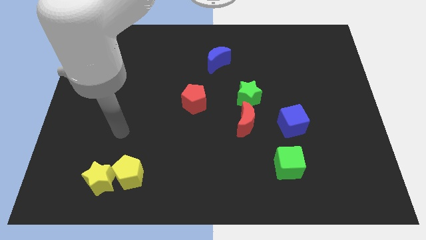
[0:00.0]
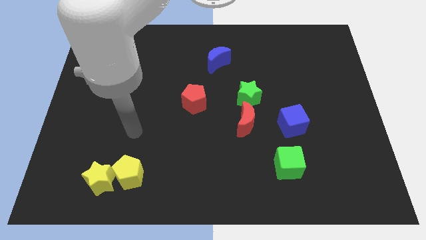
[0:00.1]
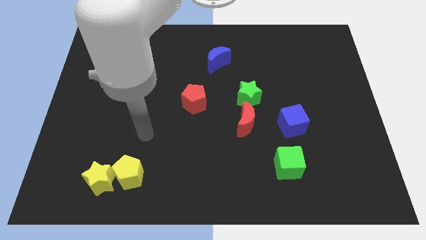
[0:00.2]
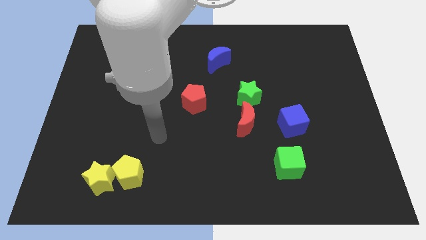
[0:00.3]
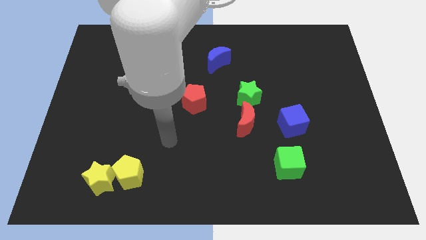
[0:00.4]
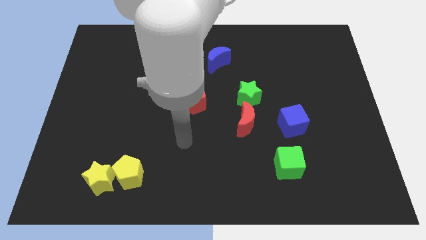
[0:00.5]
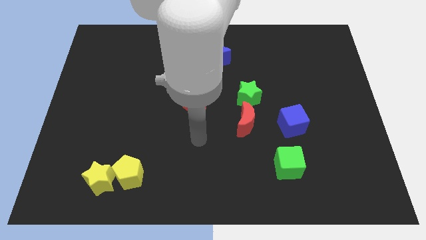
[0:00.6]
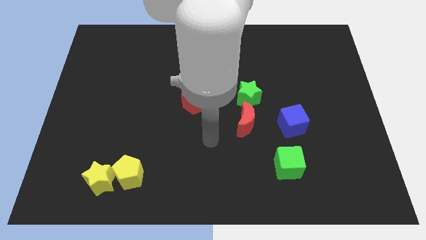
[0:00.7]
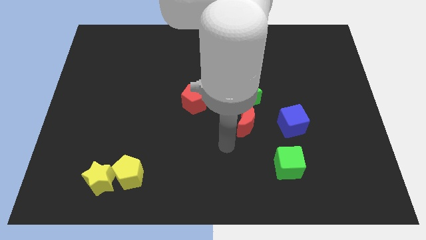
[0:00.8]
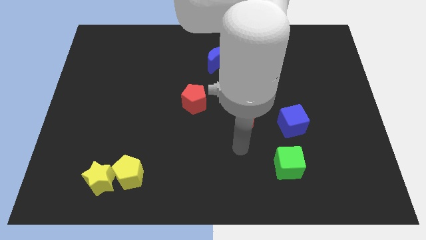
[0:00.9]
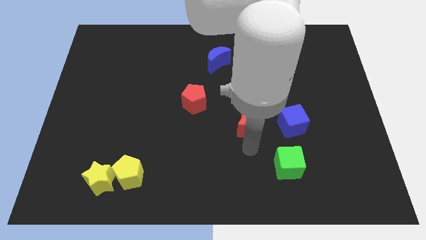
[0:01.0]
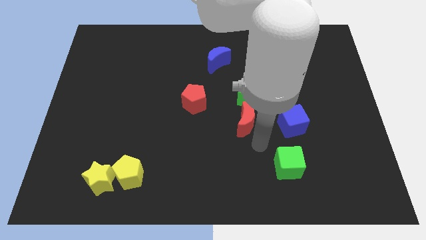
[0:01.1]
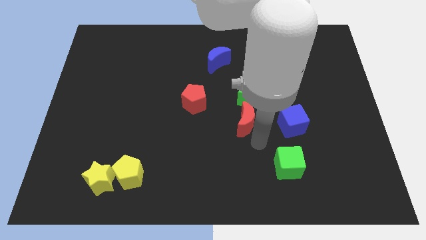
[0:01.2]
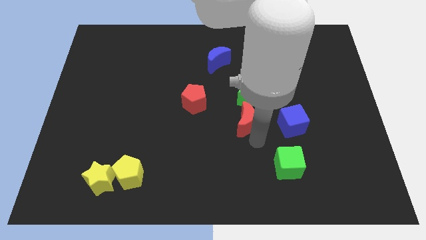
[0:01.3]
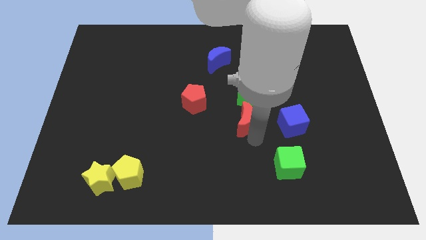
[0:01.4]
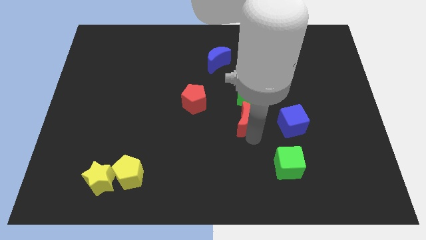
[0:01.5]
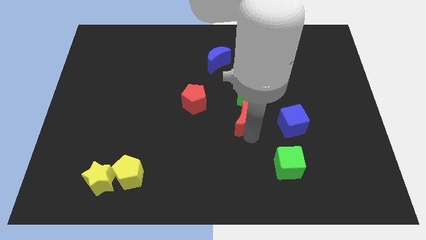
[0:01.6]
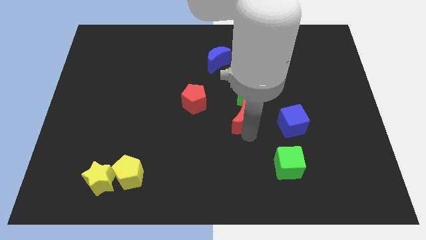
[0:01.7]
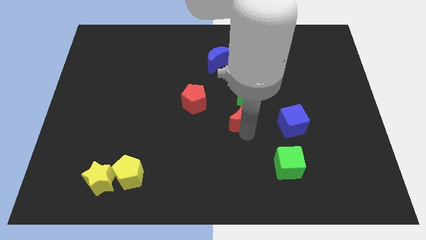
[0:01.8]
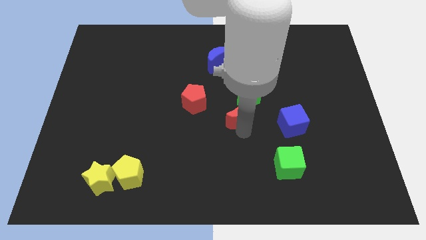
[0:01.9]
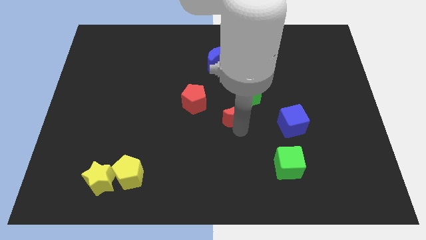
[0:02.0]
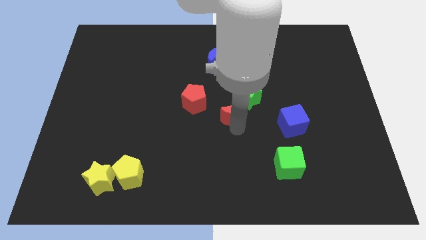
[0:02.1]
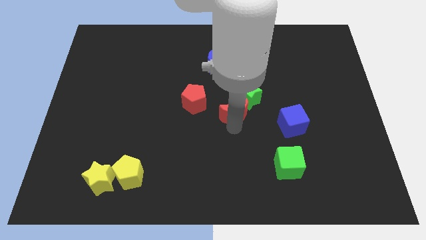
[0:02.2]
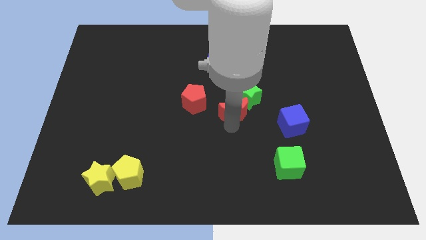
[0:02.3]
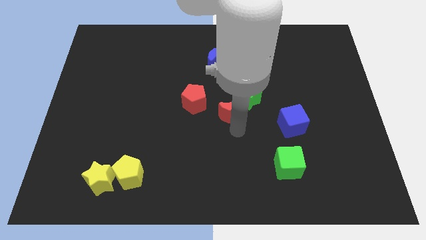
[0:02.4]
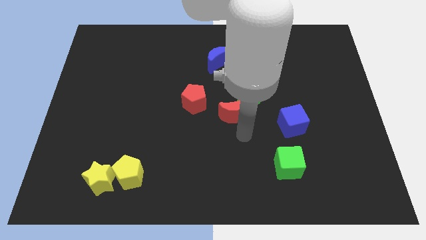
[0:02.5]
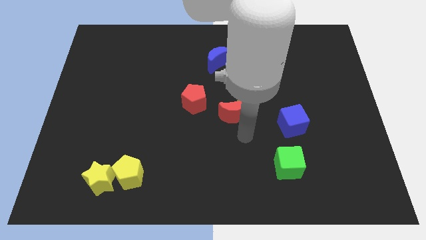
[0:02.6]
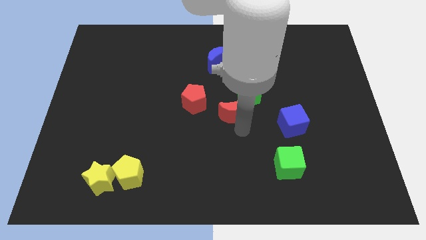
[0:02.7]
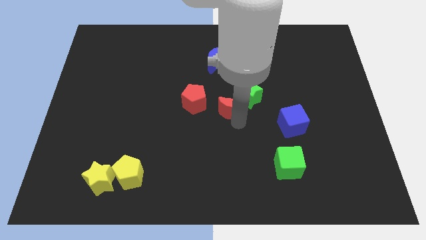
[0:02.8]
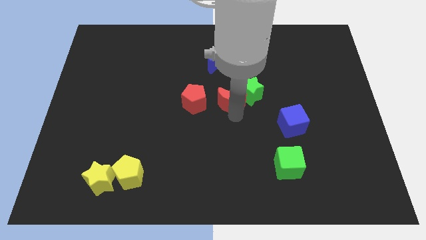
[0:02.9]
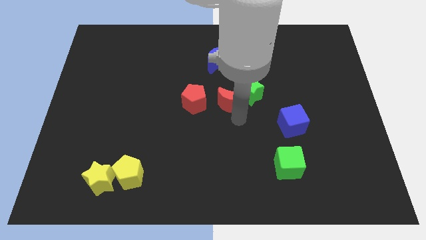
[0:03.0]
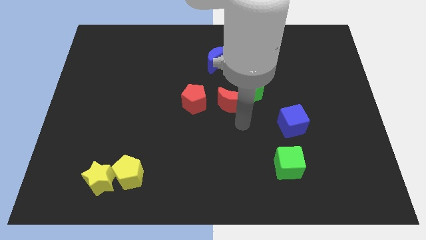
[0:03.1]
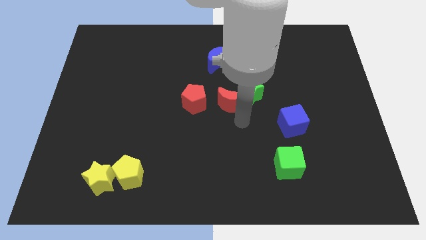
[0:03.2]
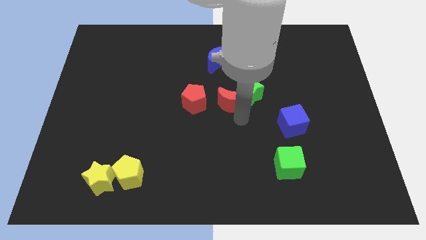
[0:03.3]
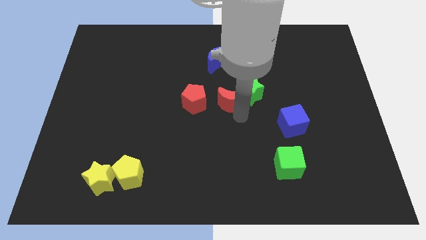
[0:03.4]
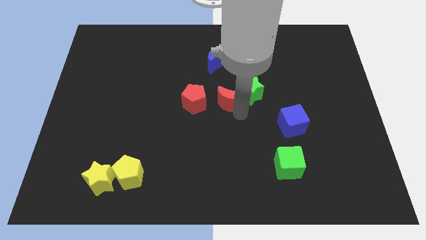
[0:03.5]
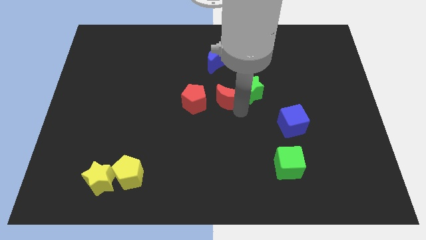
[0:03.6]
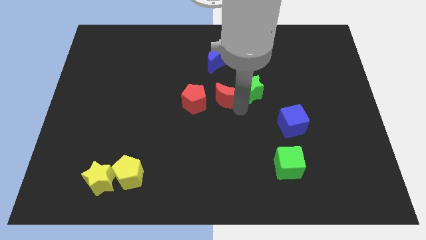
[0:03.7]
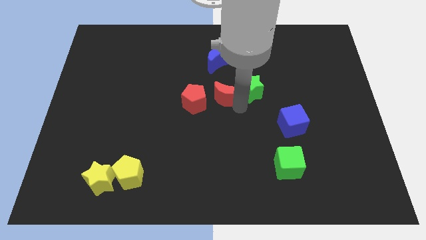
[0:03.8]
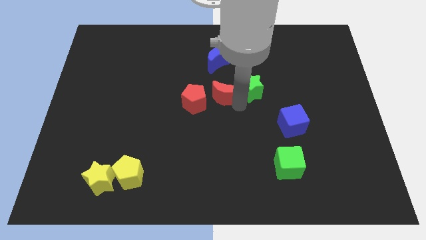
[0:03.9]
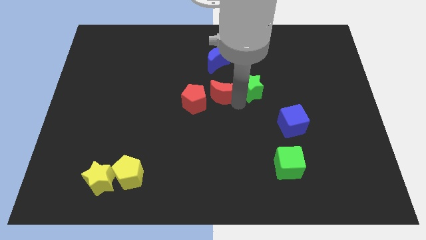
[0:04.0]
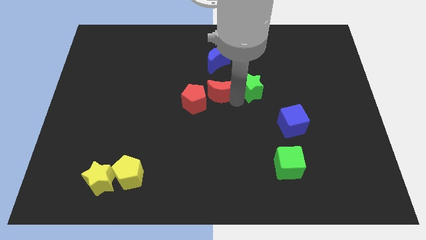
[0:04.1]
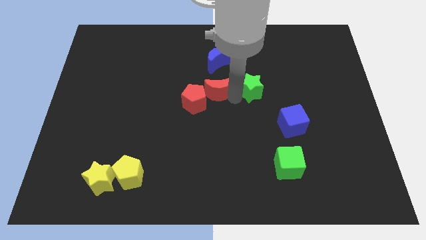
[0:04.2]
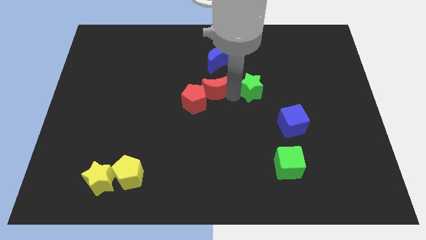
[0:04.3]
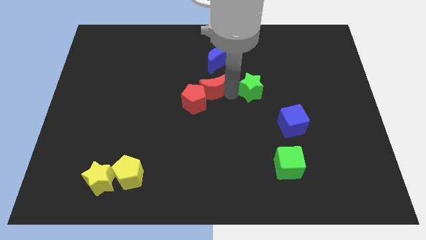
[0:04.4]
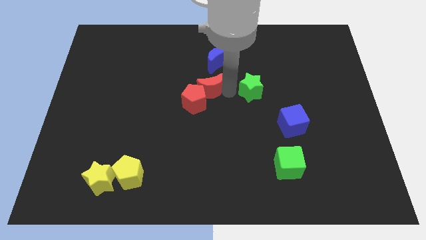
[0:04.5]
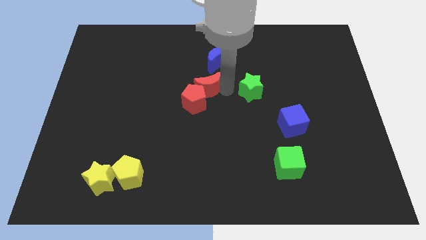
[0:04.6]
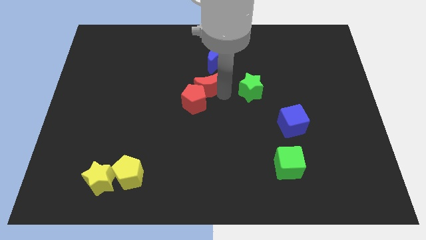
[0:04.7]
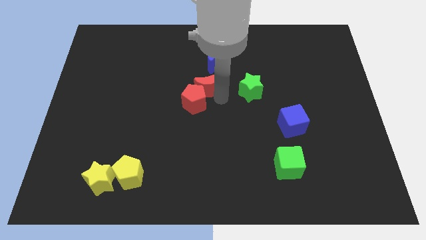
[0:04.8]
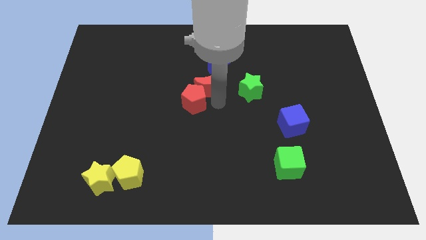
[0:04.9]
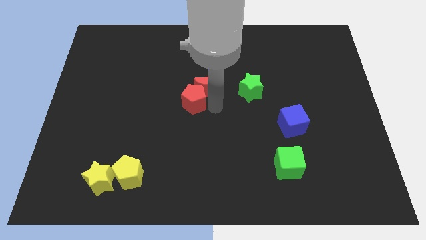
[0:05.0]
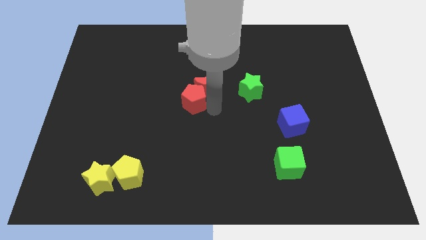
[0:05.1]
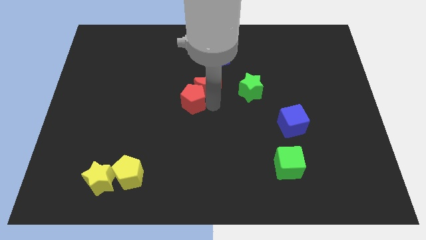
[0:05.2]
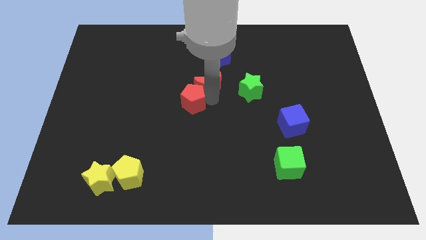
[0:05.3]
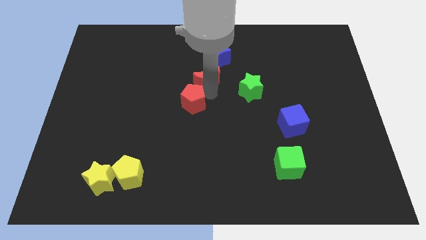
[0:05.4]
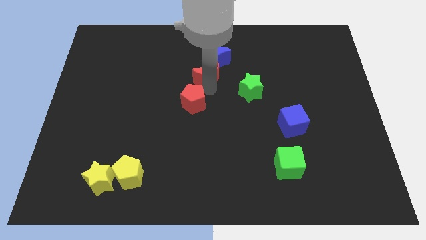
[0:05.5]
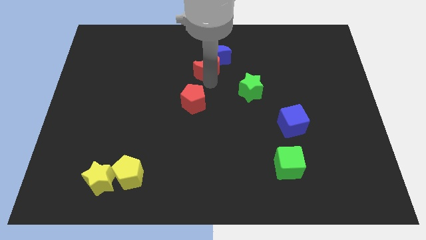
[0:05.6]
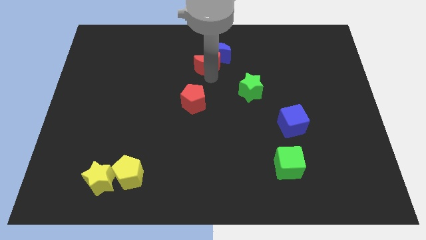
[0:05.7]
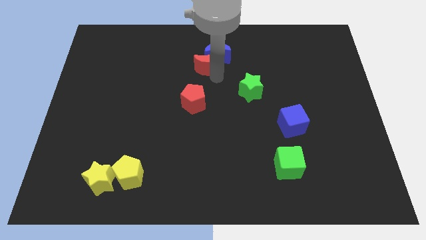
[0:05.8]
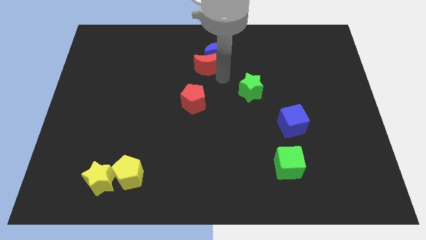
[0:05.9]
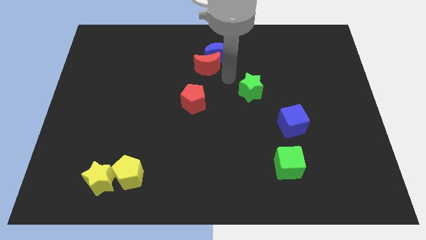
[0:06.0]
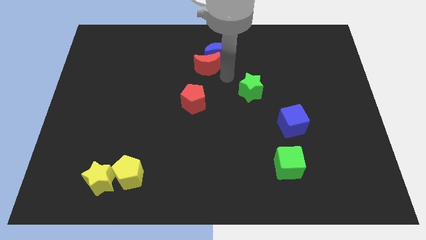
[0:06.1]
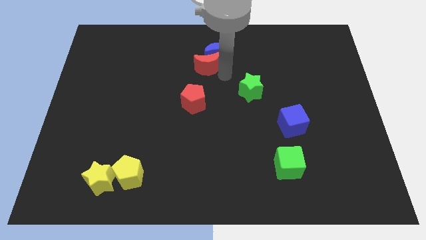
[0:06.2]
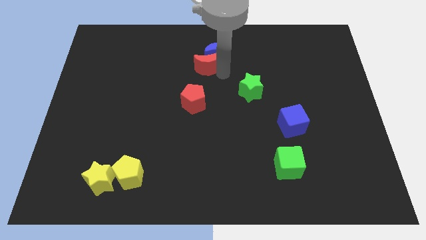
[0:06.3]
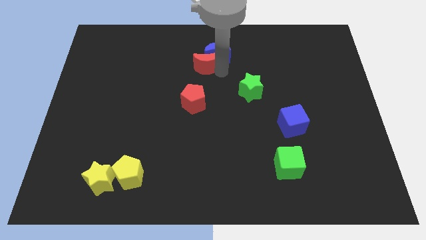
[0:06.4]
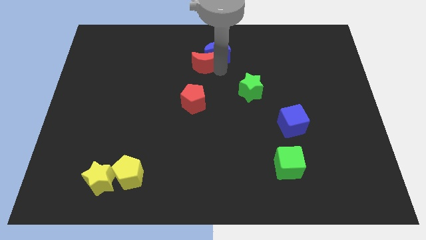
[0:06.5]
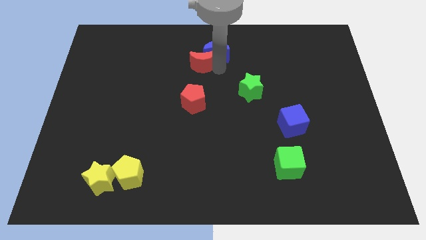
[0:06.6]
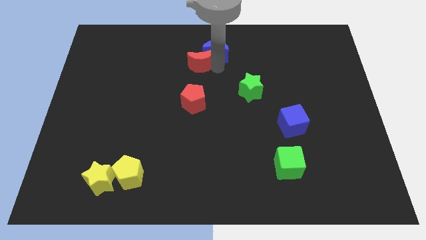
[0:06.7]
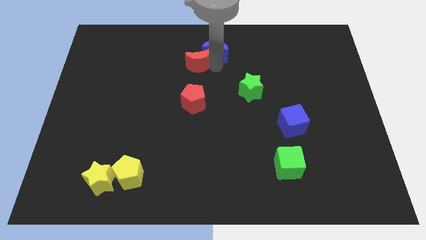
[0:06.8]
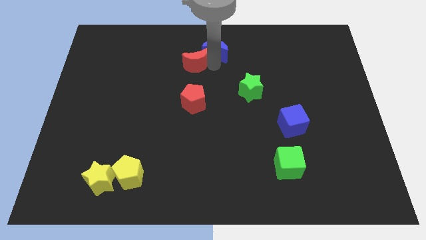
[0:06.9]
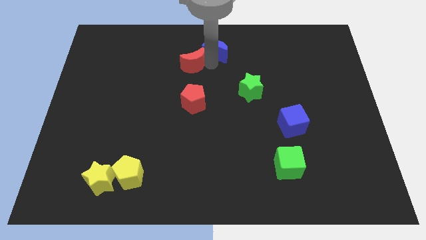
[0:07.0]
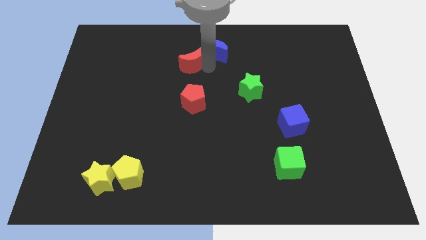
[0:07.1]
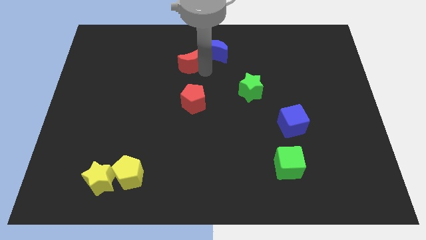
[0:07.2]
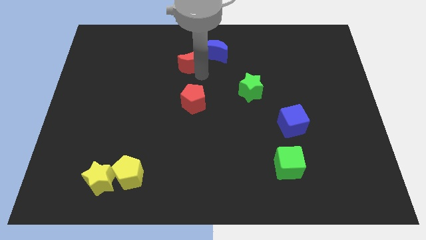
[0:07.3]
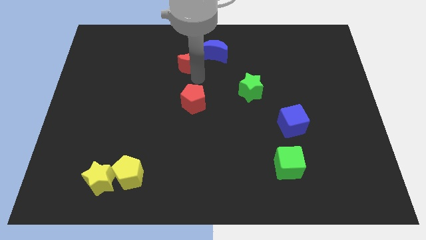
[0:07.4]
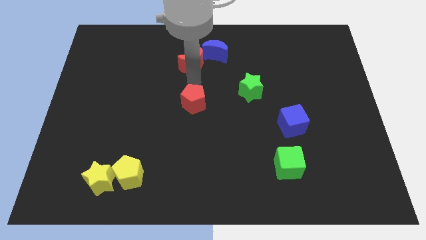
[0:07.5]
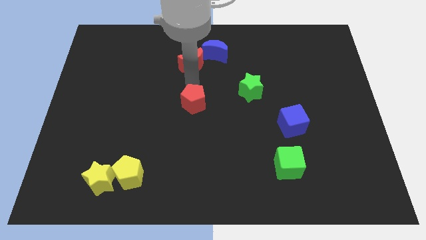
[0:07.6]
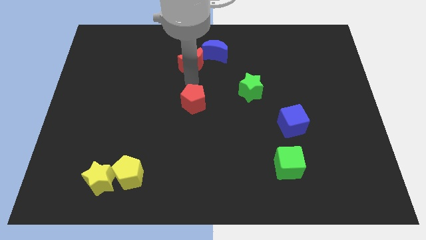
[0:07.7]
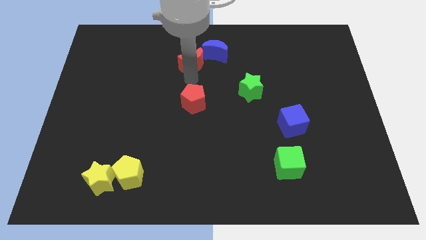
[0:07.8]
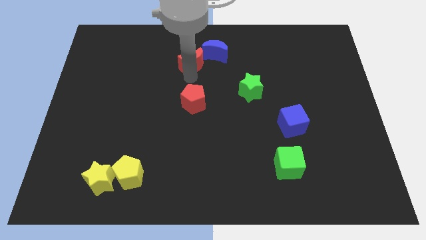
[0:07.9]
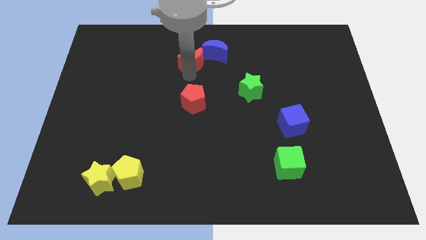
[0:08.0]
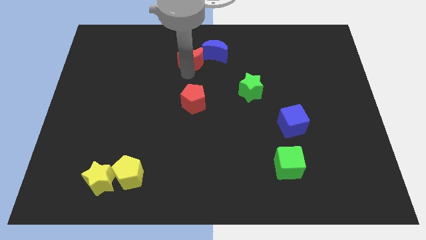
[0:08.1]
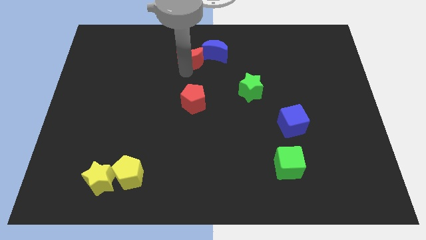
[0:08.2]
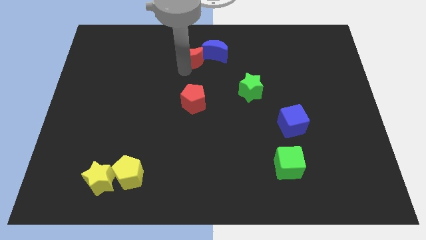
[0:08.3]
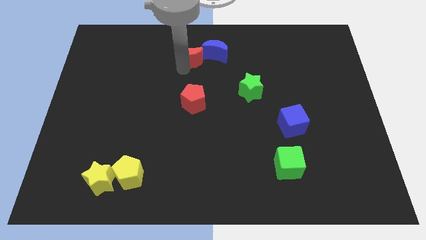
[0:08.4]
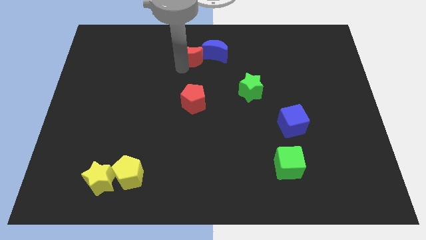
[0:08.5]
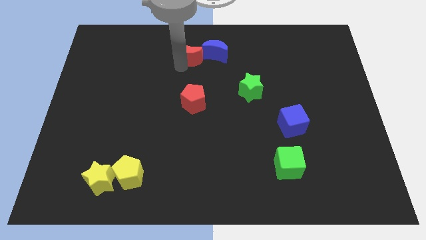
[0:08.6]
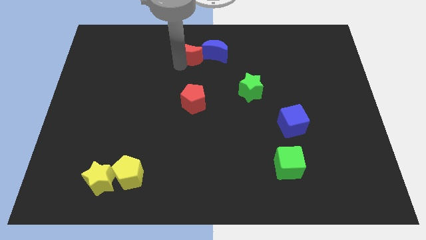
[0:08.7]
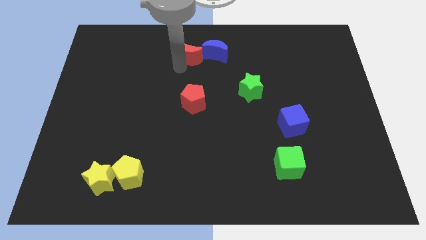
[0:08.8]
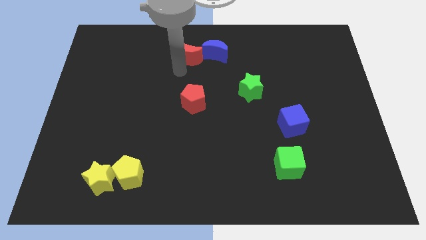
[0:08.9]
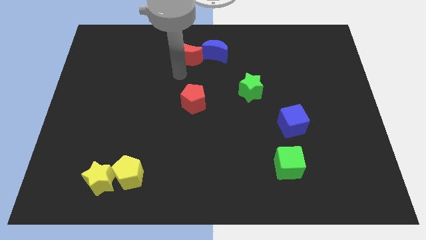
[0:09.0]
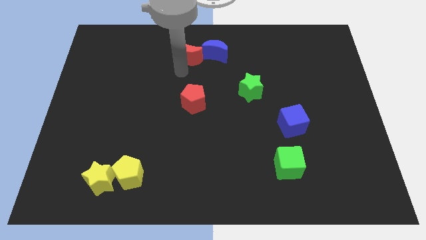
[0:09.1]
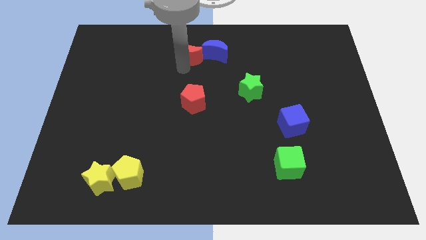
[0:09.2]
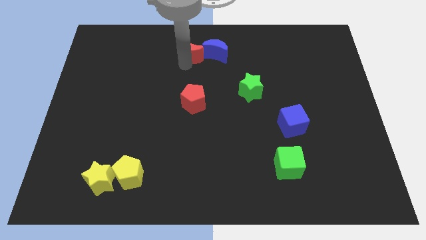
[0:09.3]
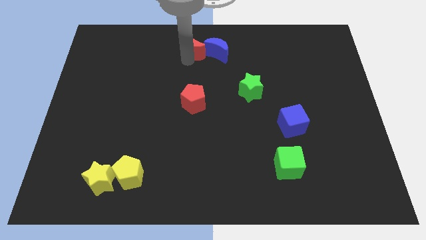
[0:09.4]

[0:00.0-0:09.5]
slide the red moon to the top side
